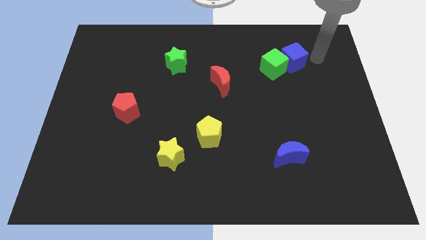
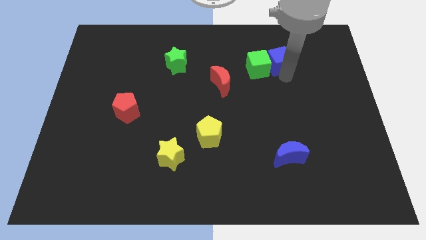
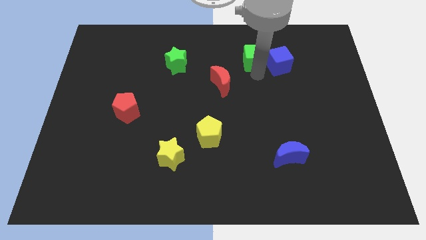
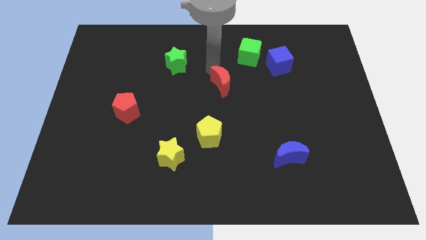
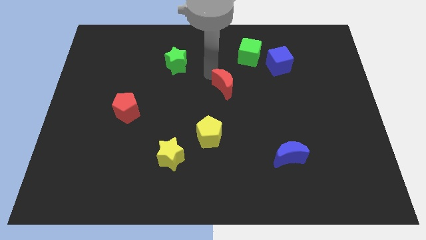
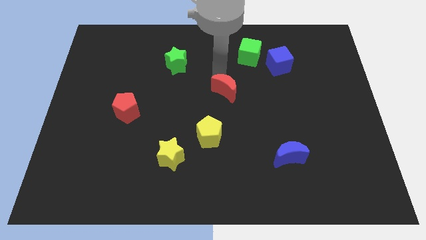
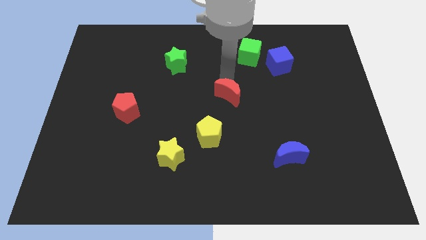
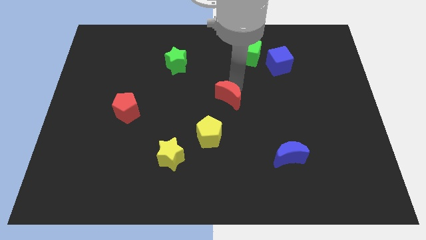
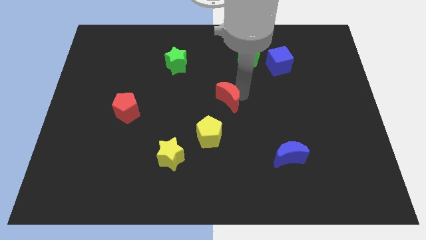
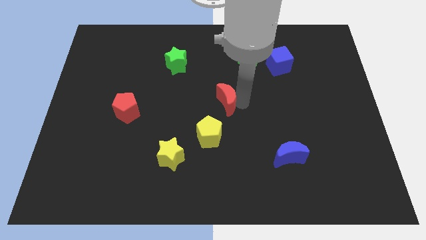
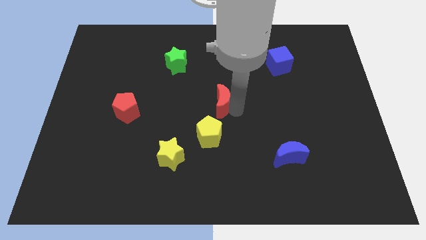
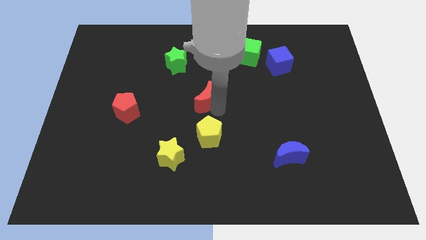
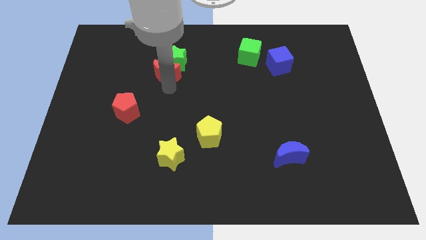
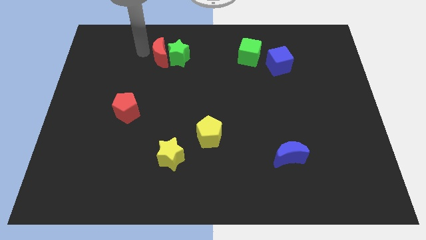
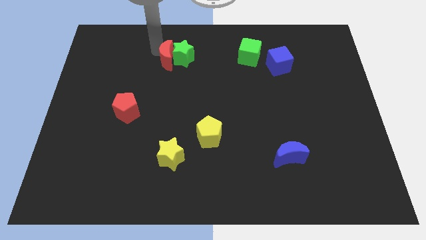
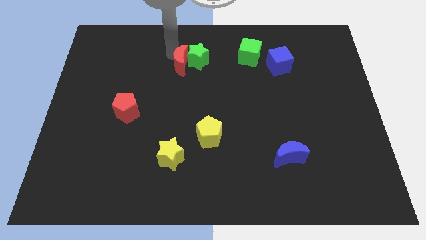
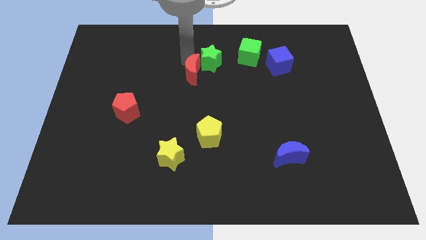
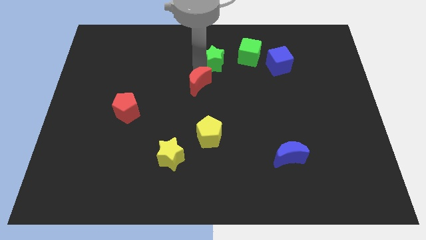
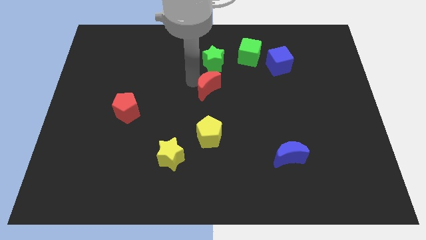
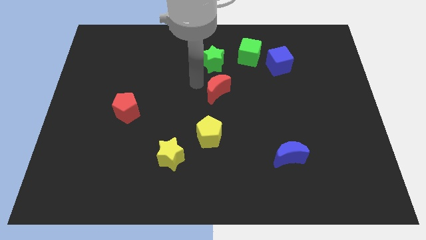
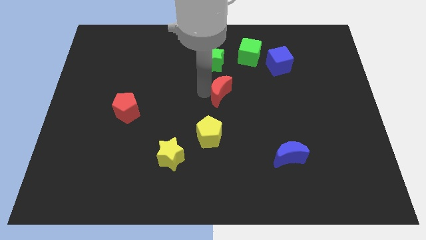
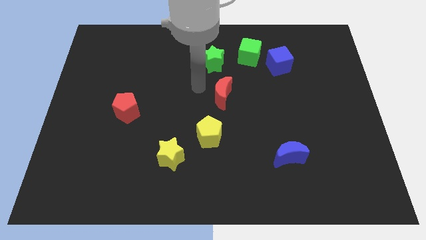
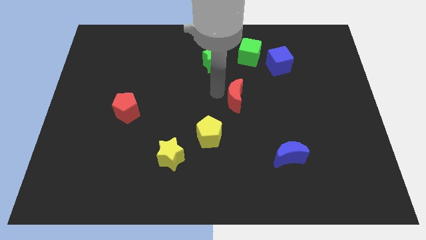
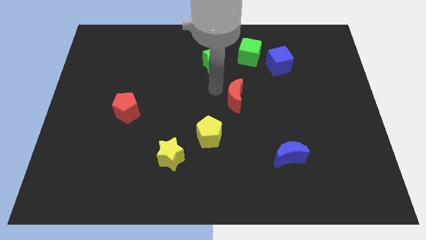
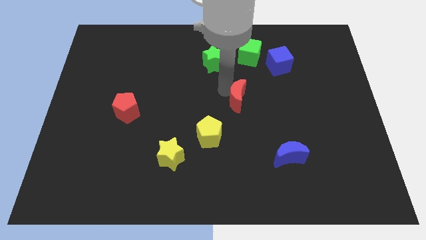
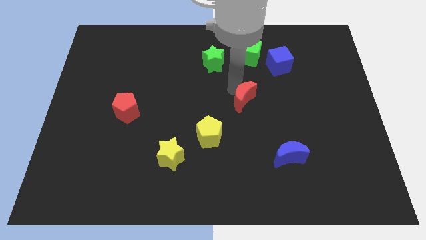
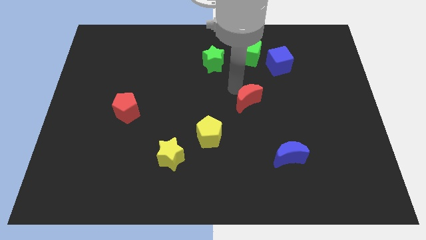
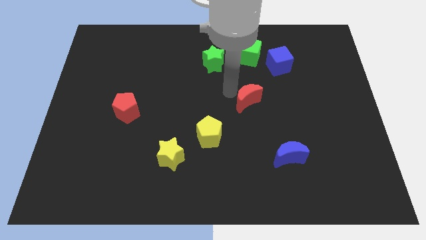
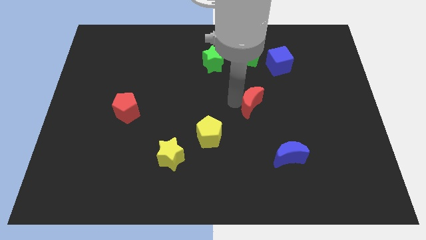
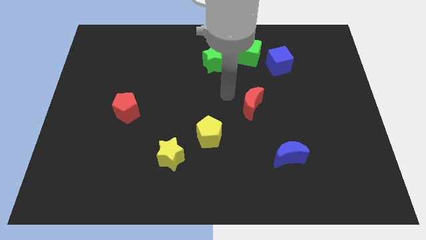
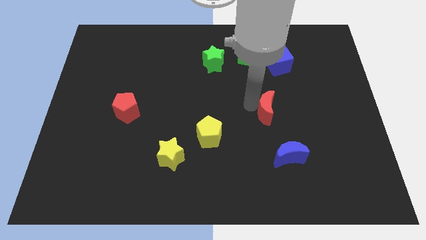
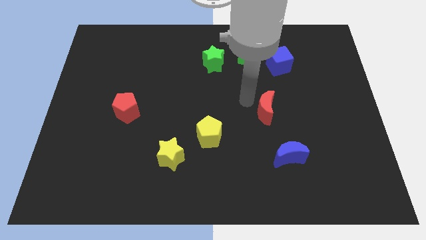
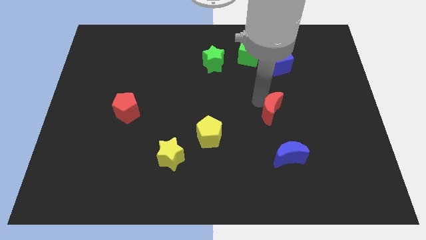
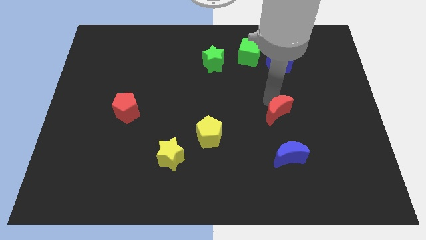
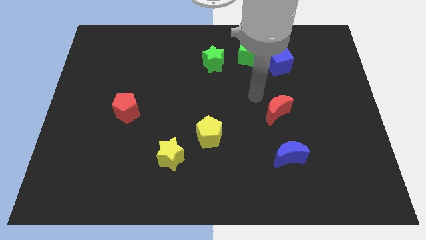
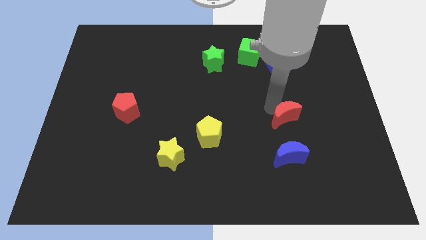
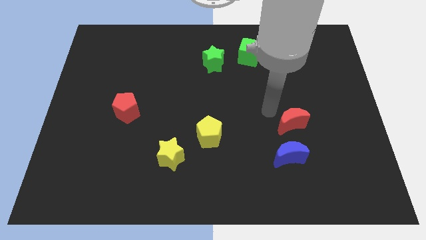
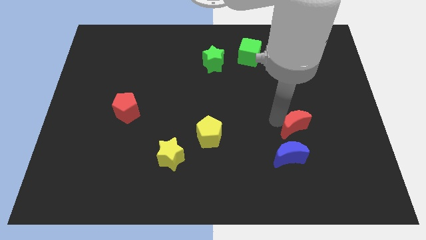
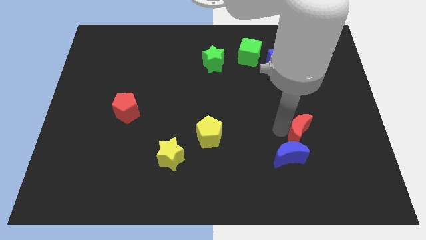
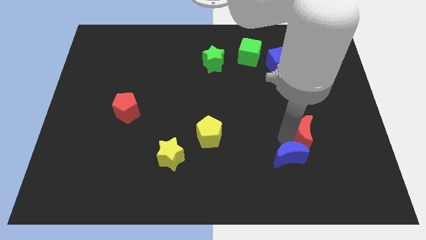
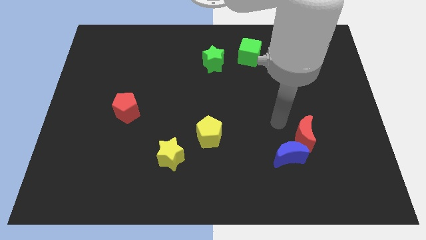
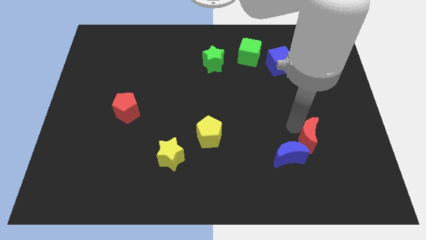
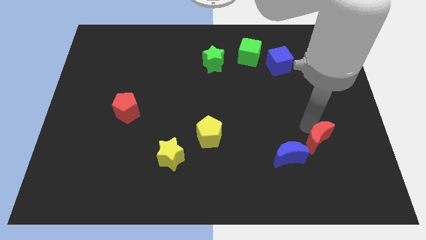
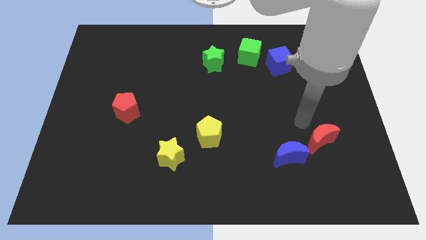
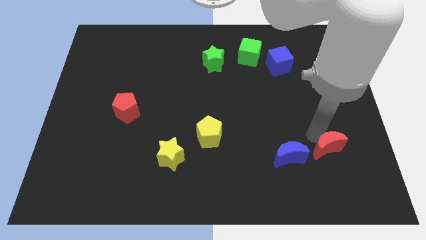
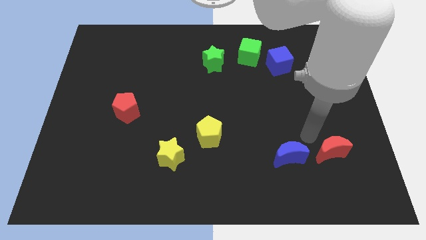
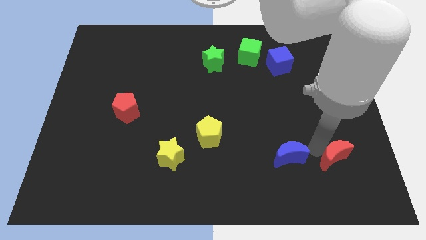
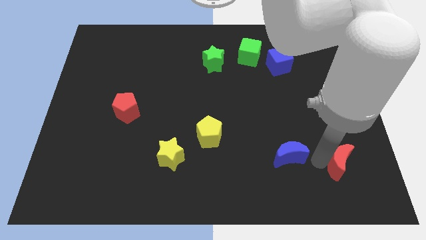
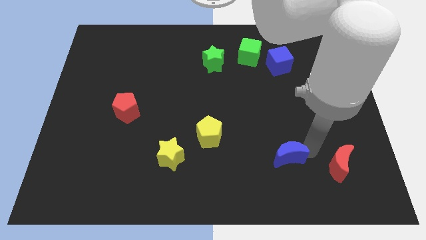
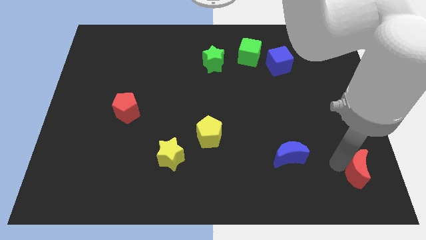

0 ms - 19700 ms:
move the red moon to the lower right corner

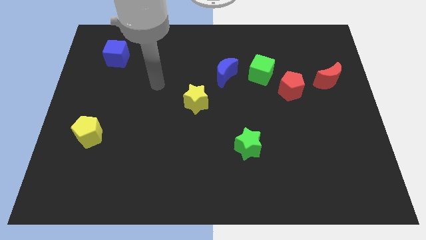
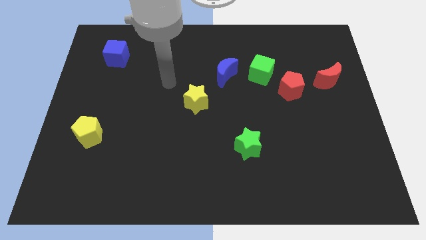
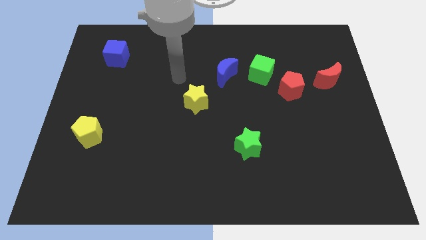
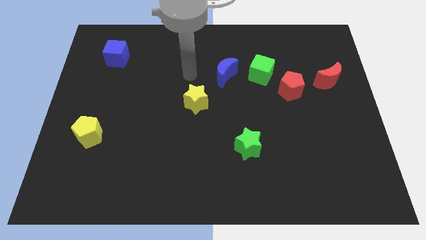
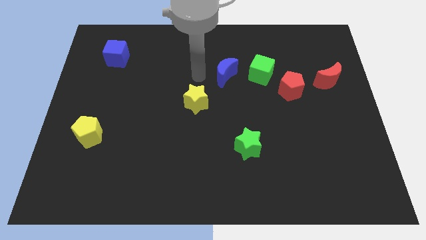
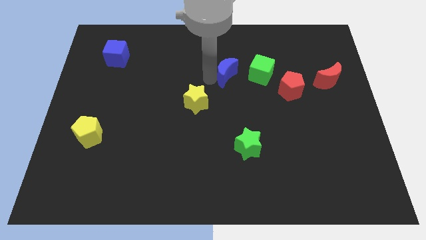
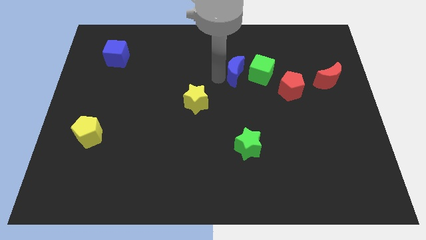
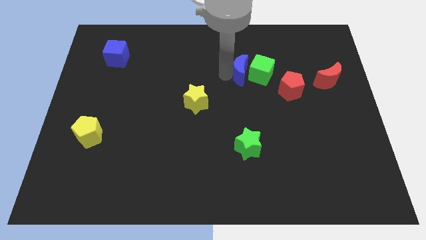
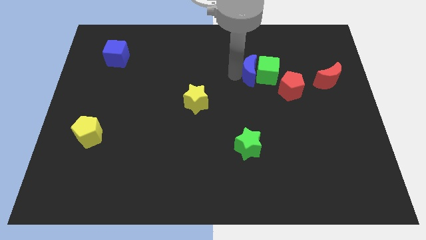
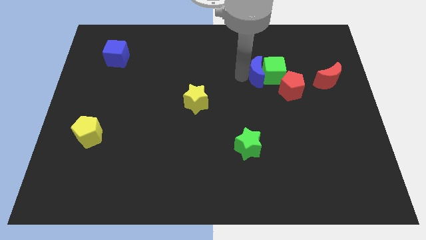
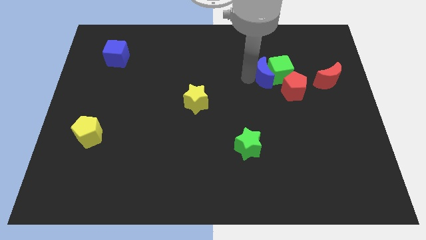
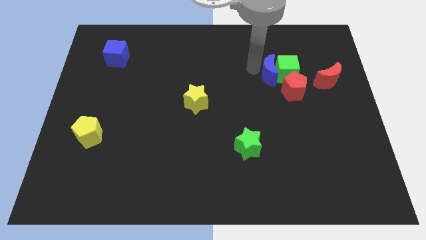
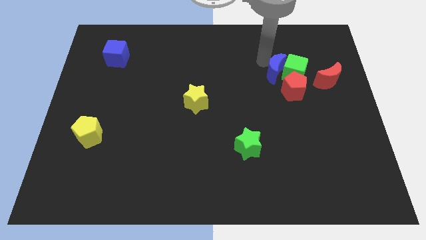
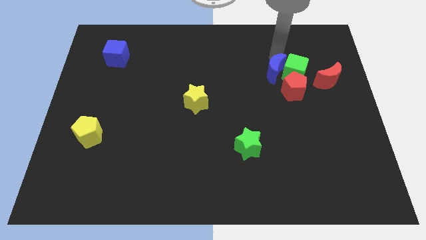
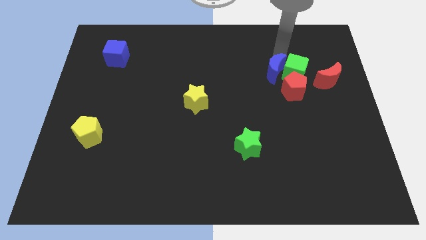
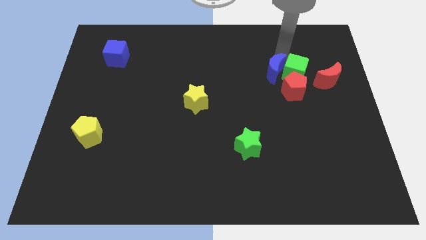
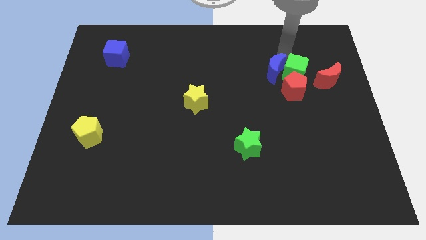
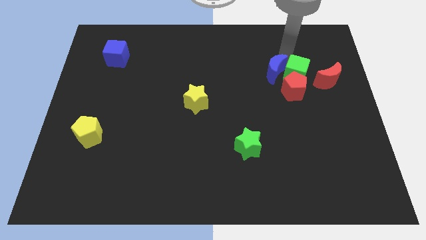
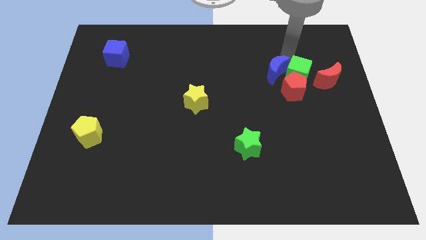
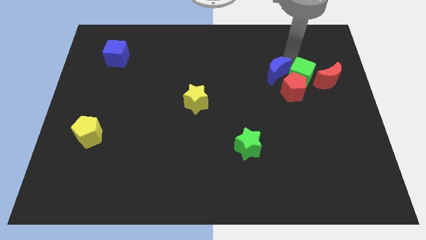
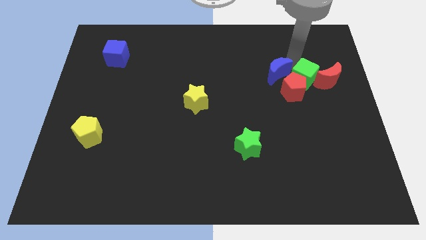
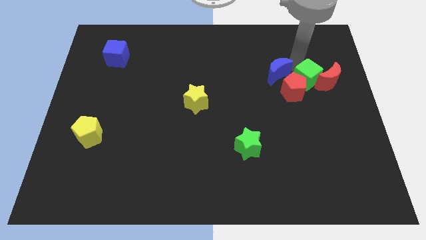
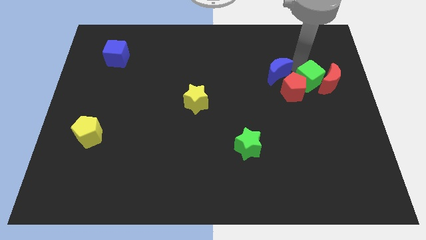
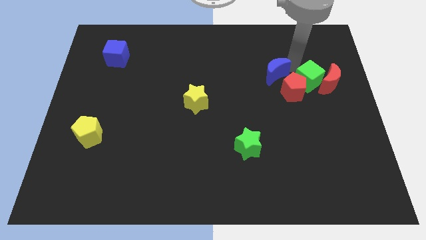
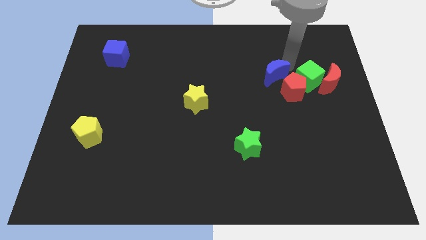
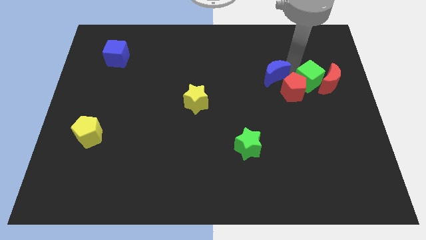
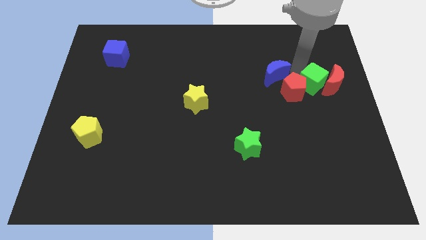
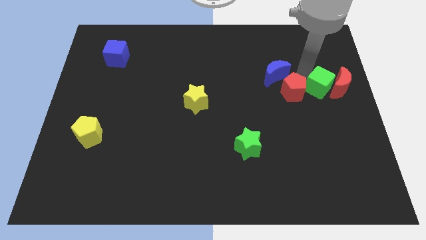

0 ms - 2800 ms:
push the green cube to the right side
